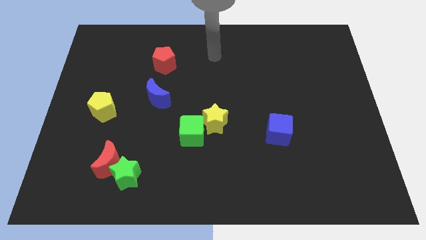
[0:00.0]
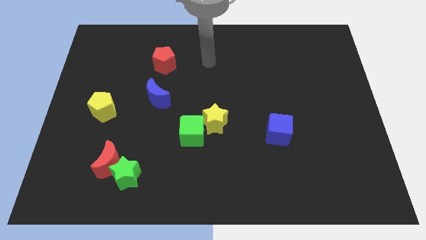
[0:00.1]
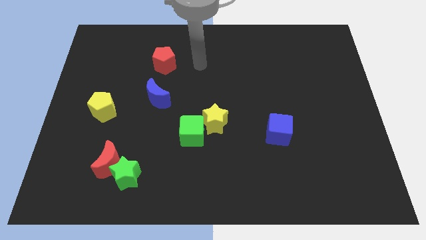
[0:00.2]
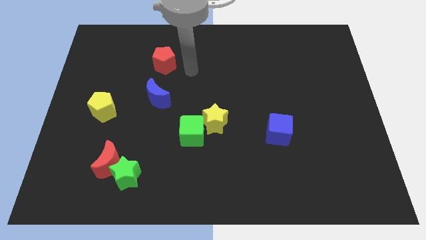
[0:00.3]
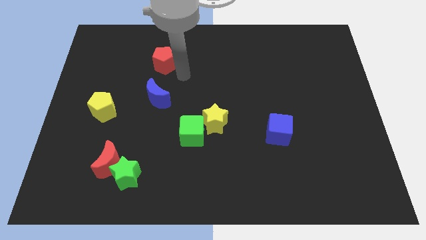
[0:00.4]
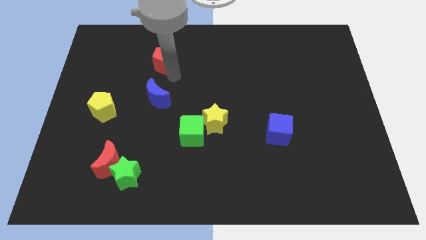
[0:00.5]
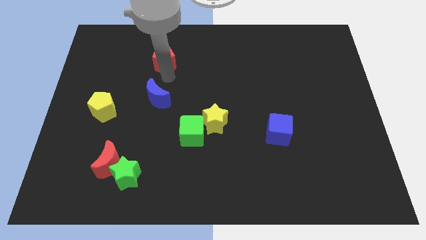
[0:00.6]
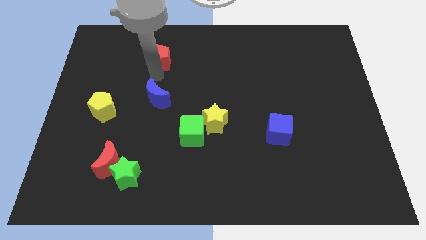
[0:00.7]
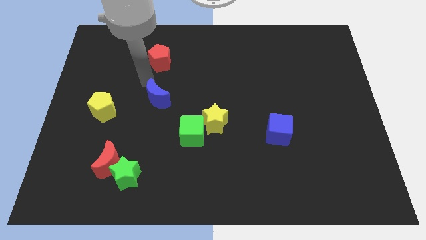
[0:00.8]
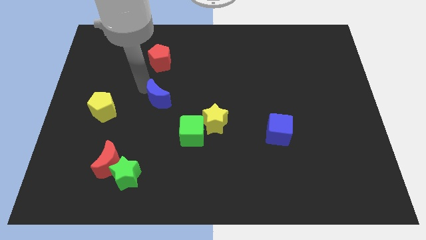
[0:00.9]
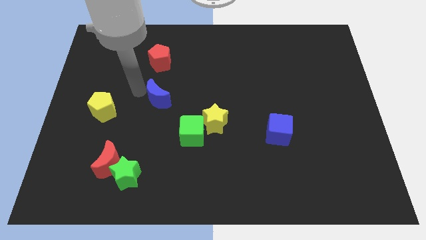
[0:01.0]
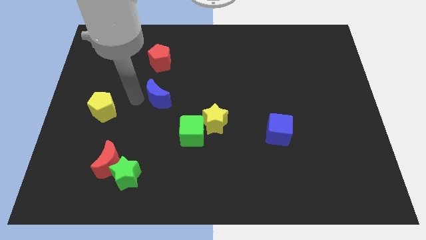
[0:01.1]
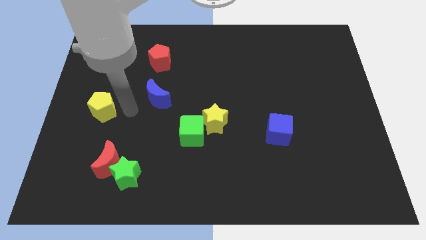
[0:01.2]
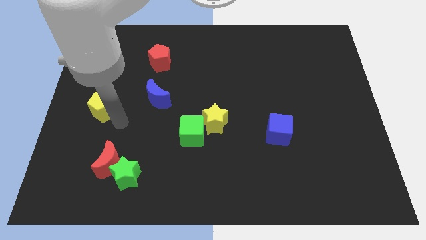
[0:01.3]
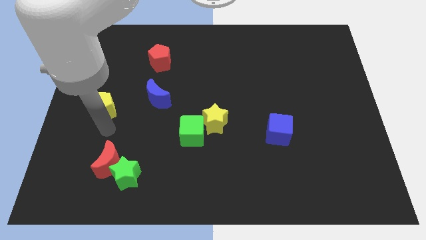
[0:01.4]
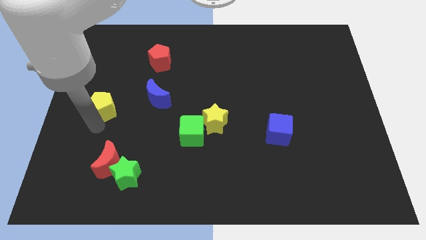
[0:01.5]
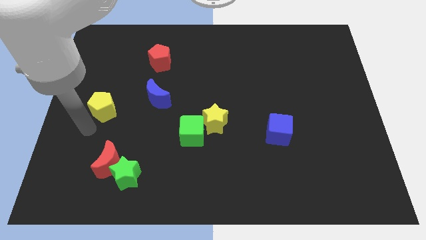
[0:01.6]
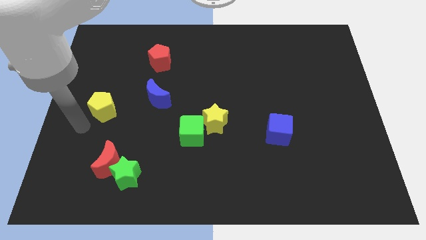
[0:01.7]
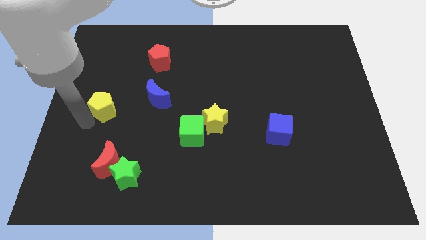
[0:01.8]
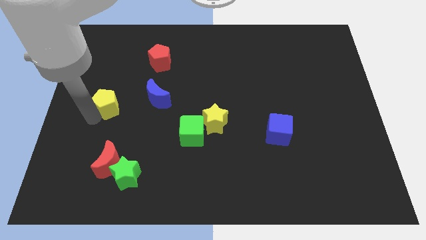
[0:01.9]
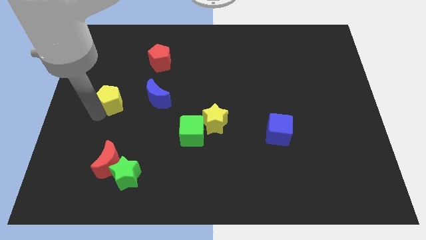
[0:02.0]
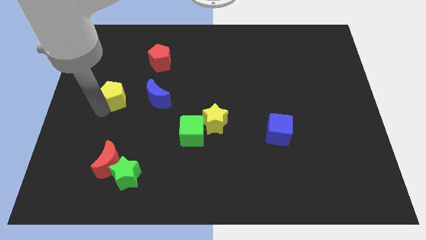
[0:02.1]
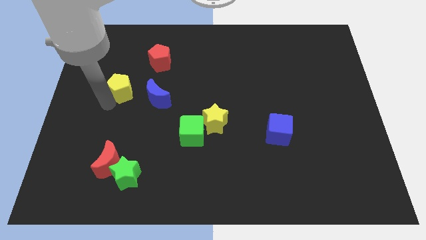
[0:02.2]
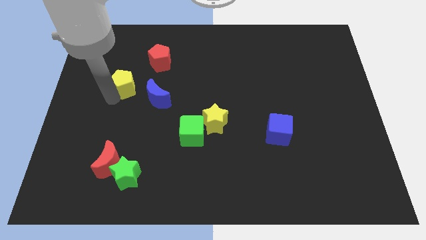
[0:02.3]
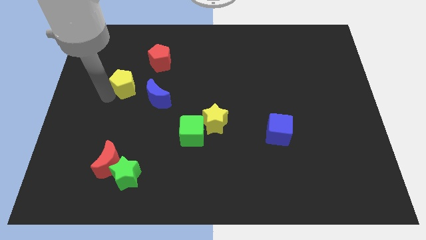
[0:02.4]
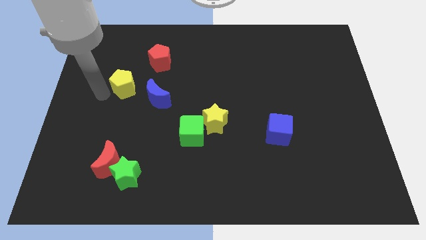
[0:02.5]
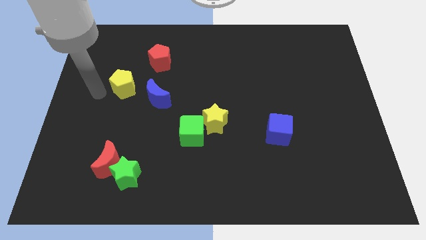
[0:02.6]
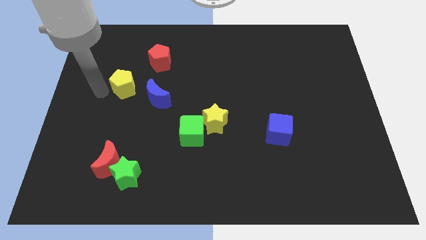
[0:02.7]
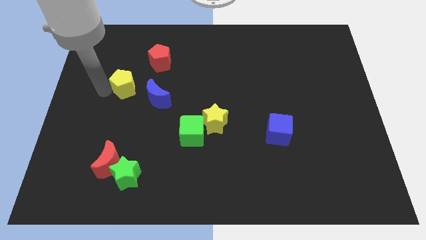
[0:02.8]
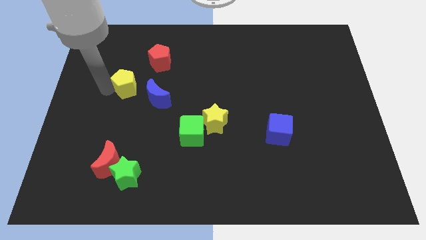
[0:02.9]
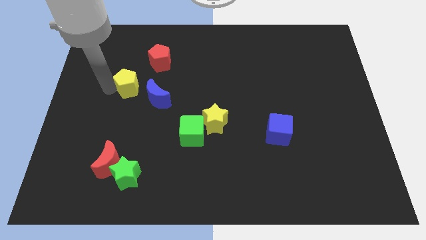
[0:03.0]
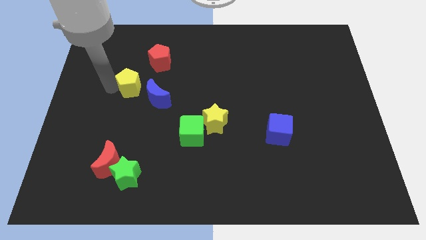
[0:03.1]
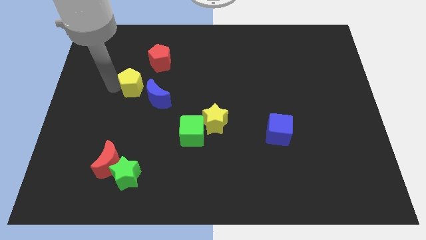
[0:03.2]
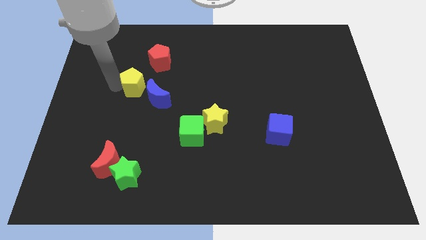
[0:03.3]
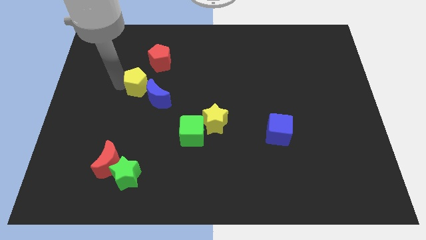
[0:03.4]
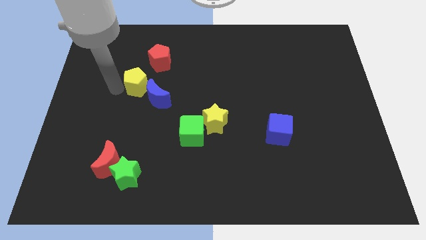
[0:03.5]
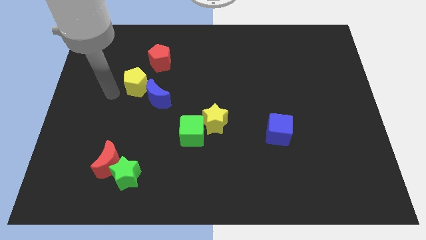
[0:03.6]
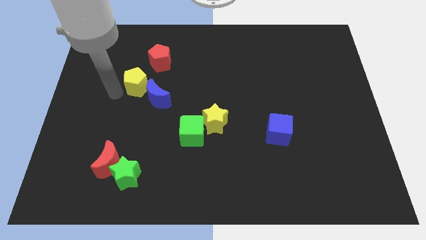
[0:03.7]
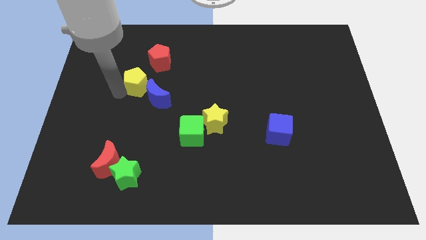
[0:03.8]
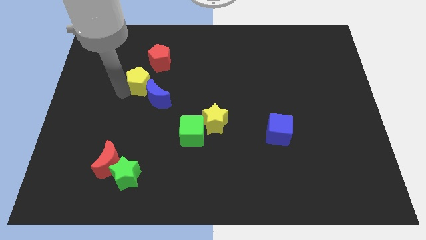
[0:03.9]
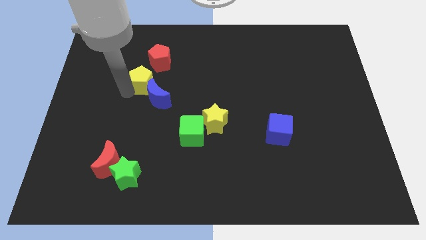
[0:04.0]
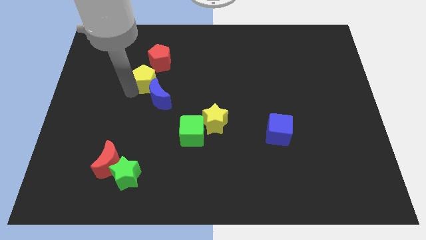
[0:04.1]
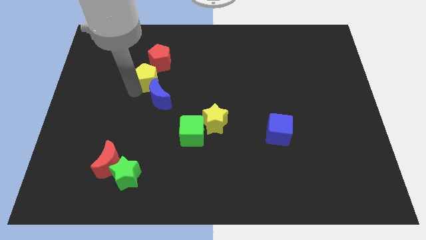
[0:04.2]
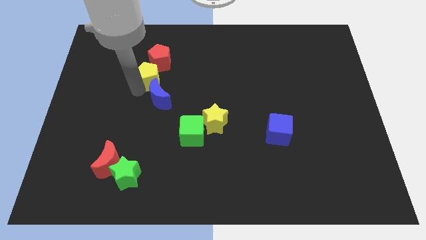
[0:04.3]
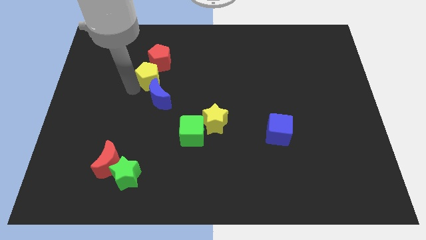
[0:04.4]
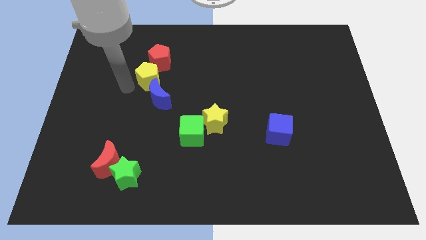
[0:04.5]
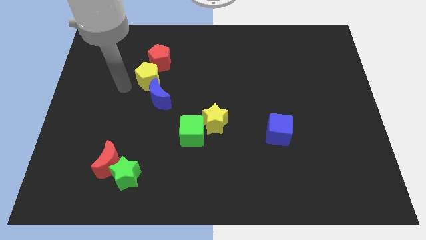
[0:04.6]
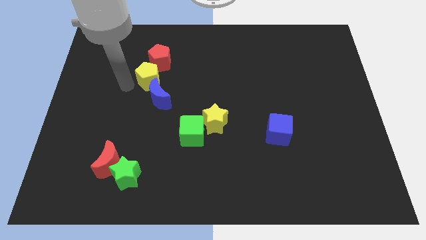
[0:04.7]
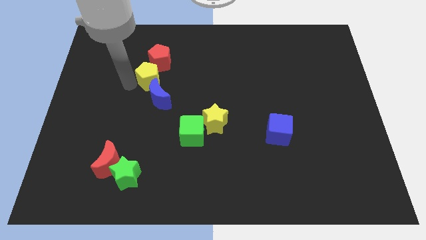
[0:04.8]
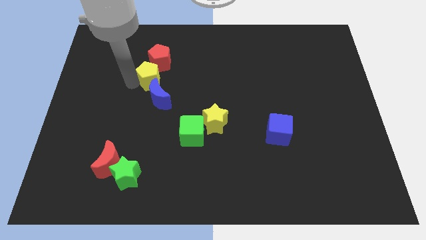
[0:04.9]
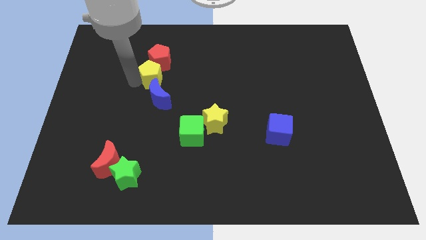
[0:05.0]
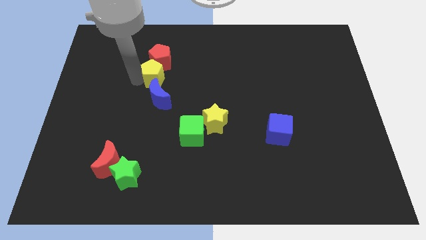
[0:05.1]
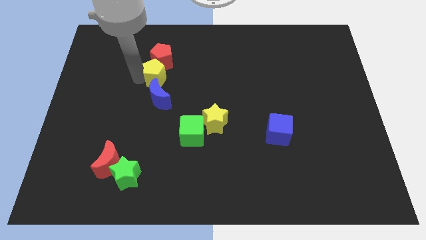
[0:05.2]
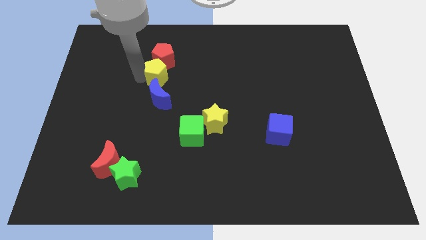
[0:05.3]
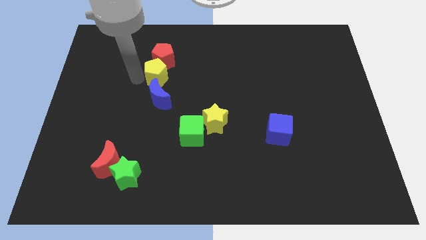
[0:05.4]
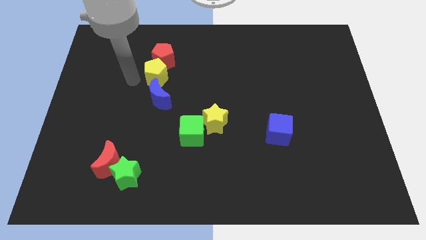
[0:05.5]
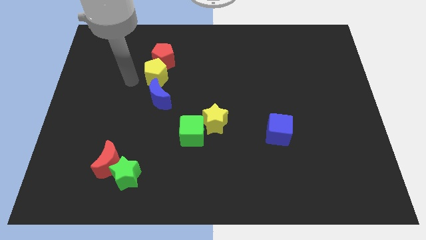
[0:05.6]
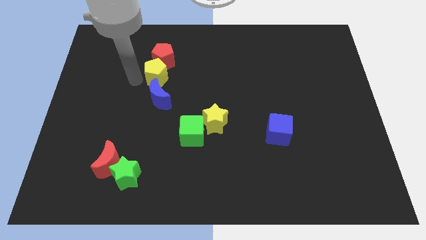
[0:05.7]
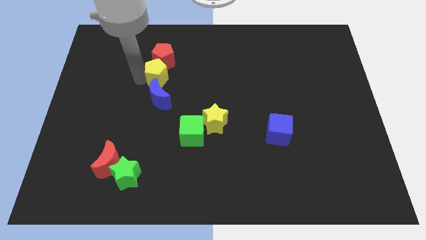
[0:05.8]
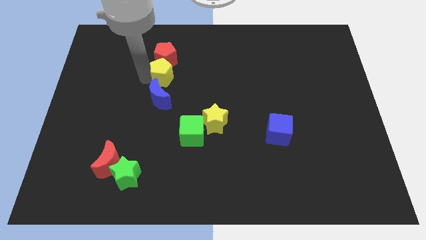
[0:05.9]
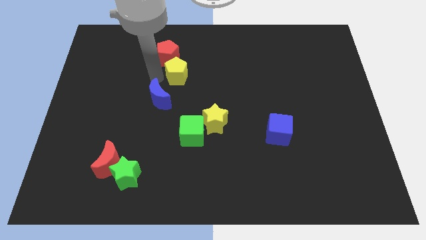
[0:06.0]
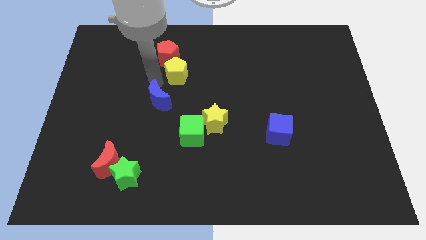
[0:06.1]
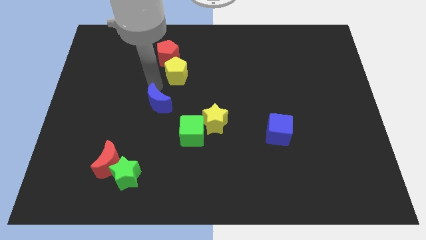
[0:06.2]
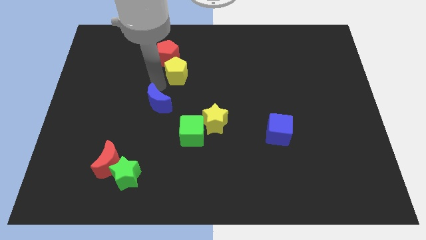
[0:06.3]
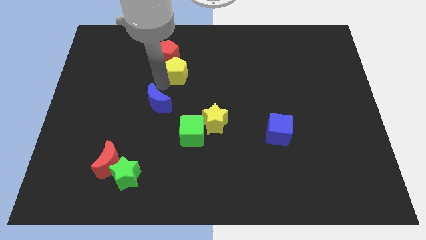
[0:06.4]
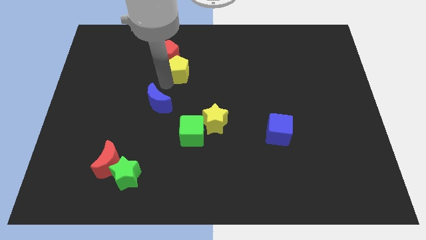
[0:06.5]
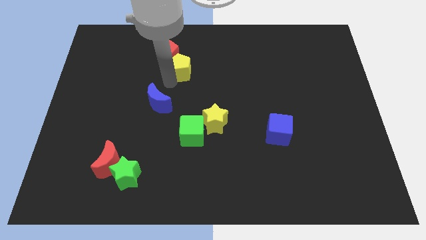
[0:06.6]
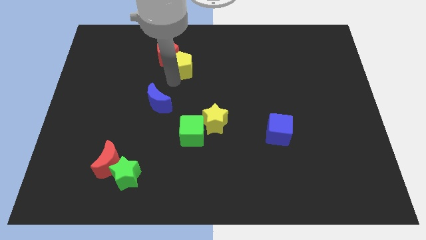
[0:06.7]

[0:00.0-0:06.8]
put the yellow pentagon right of the red pentagon
